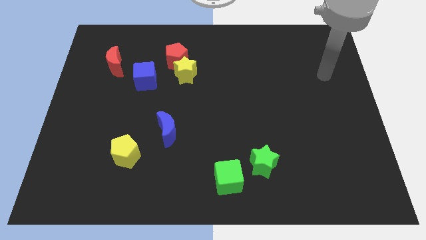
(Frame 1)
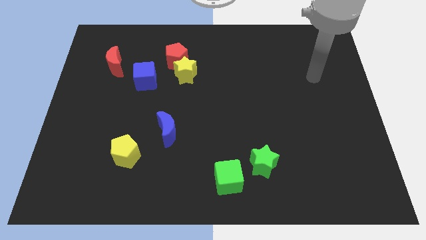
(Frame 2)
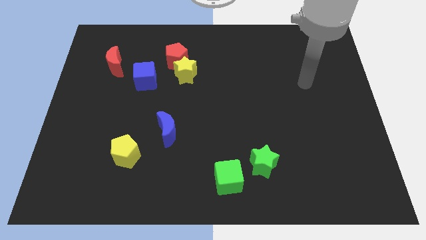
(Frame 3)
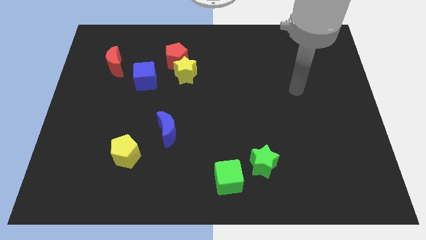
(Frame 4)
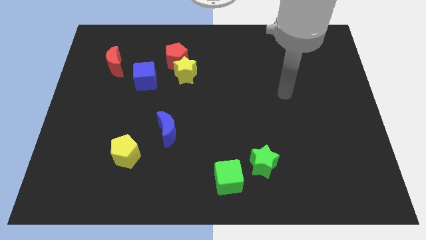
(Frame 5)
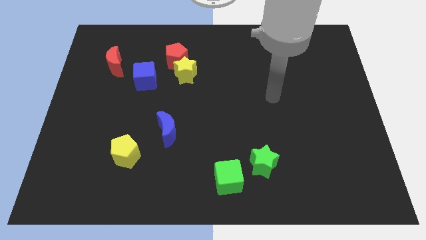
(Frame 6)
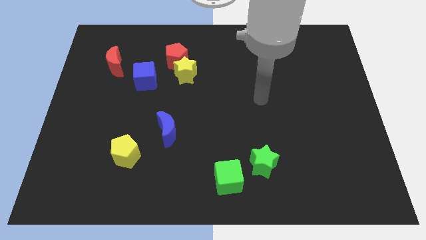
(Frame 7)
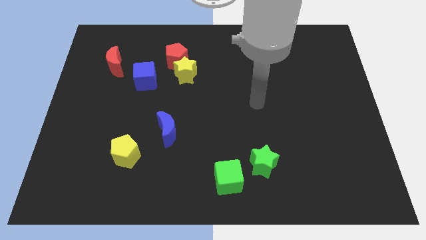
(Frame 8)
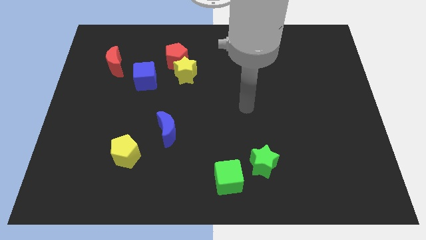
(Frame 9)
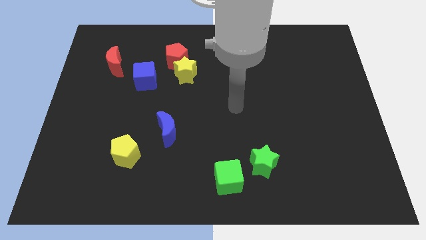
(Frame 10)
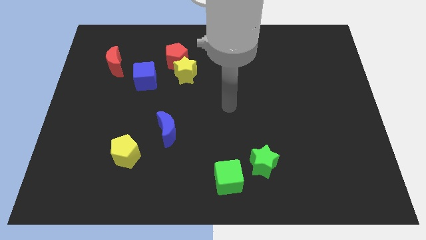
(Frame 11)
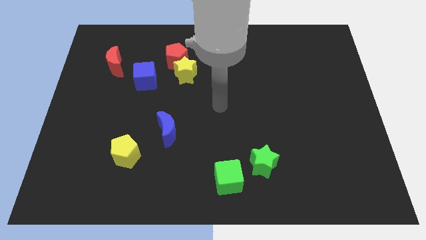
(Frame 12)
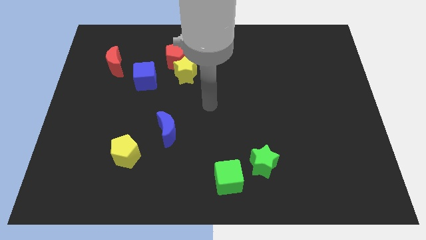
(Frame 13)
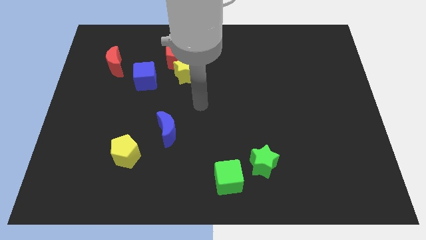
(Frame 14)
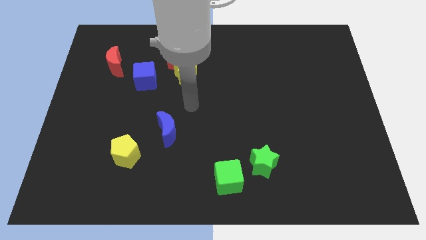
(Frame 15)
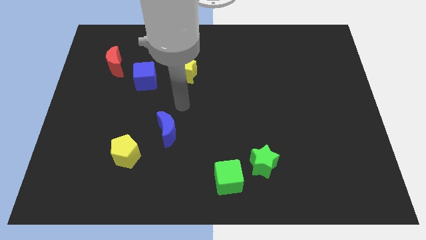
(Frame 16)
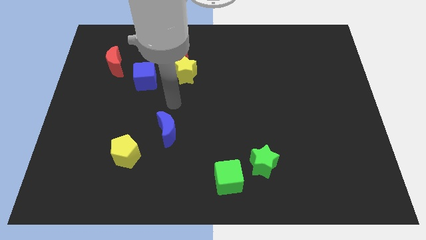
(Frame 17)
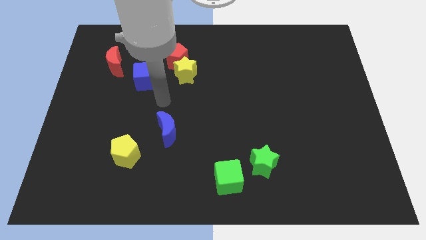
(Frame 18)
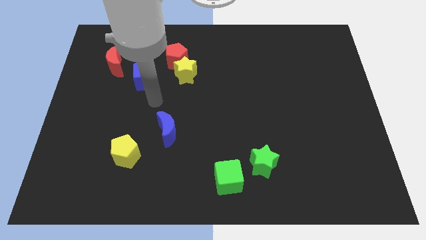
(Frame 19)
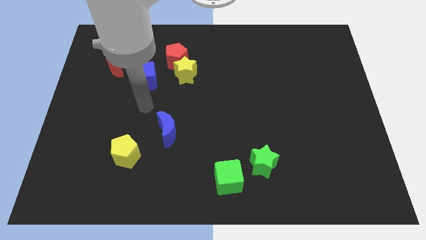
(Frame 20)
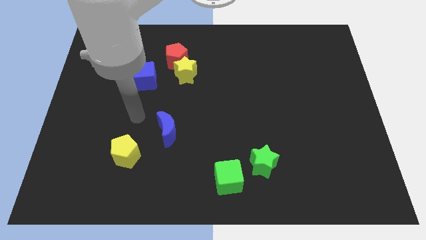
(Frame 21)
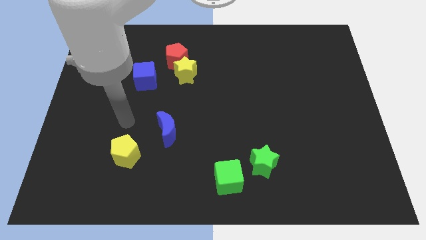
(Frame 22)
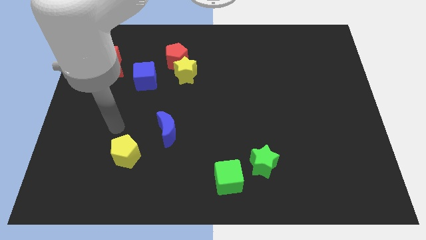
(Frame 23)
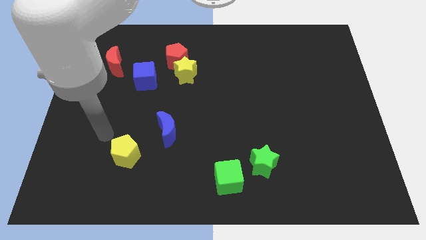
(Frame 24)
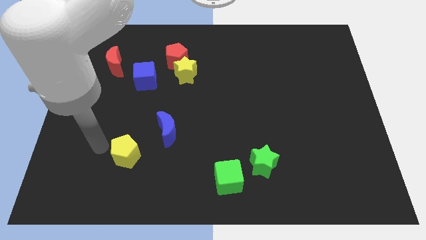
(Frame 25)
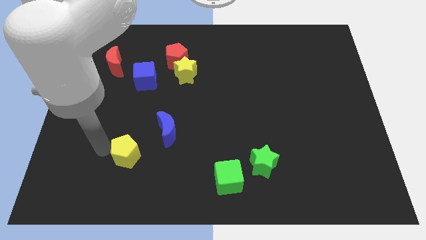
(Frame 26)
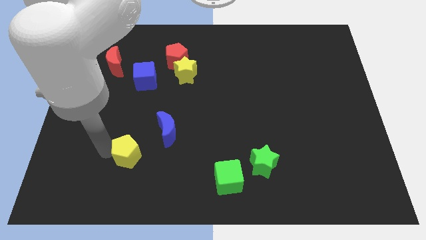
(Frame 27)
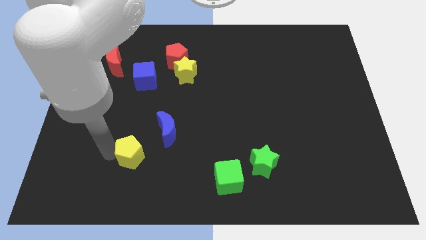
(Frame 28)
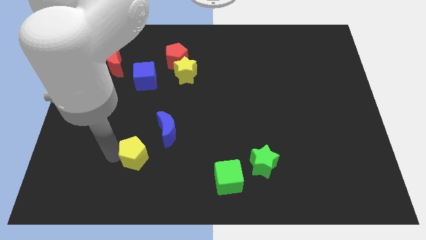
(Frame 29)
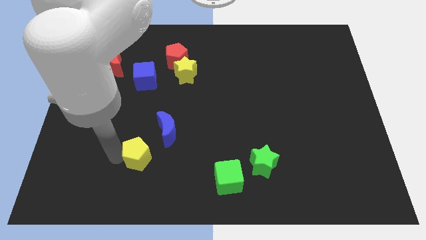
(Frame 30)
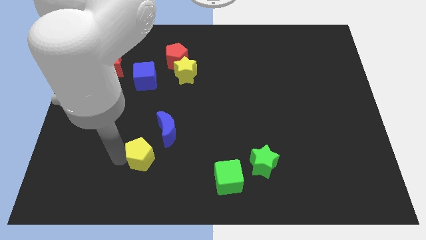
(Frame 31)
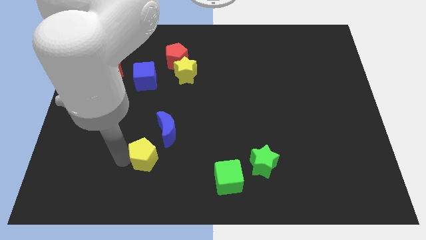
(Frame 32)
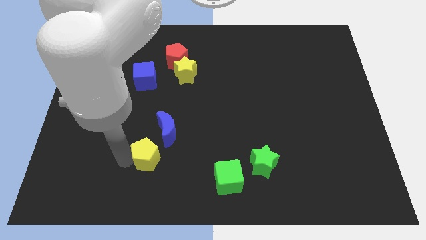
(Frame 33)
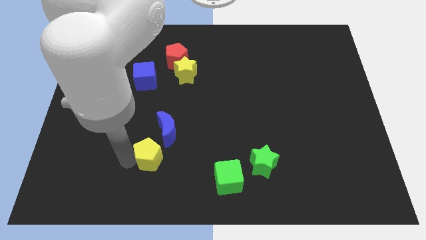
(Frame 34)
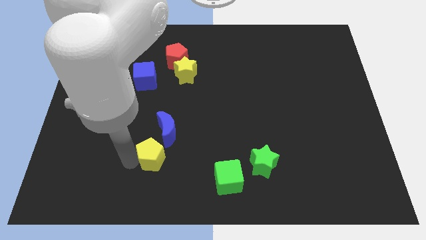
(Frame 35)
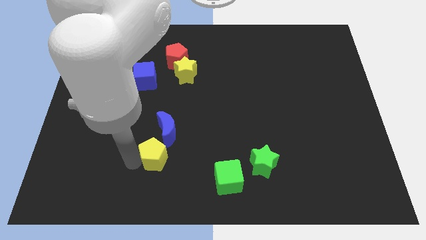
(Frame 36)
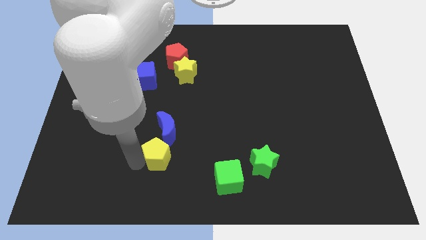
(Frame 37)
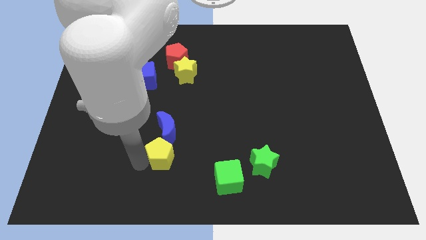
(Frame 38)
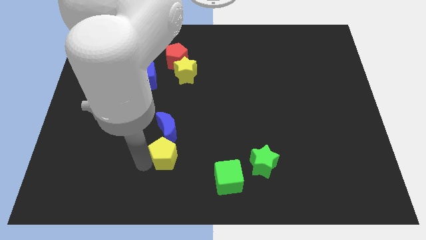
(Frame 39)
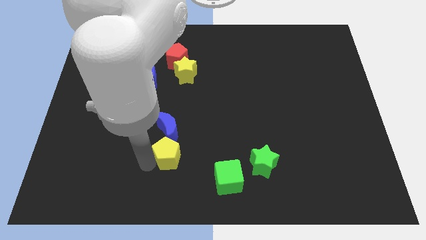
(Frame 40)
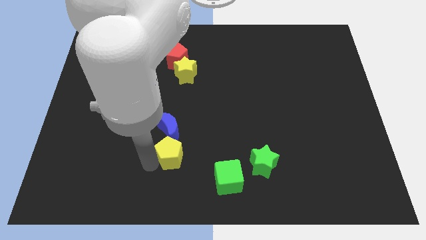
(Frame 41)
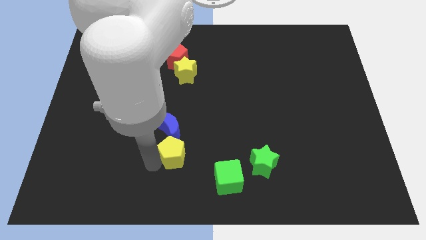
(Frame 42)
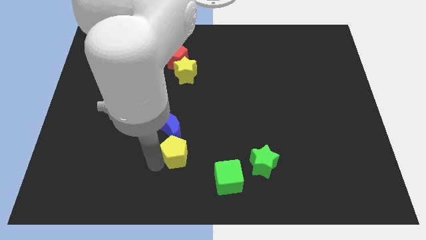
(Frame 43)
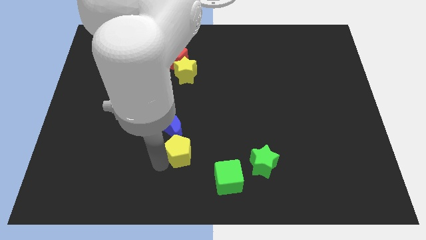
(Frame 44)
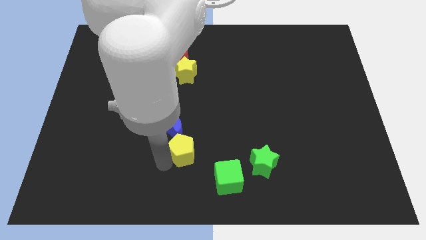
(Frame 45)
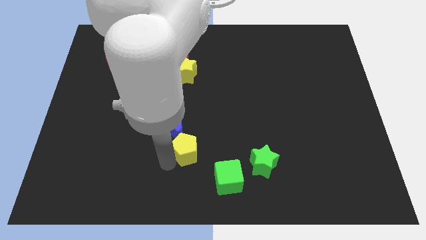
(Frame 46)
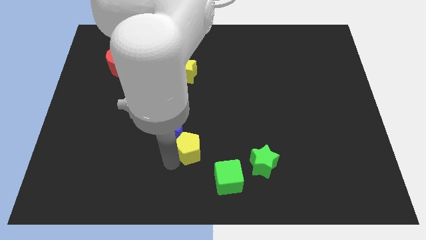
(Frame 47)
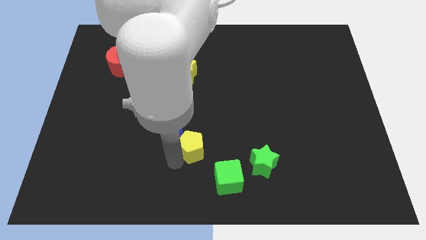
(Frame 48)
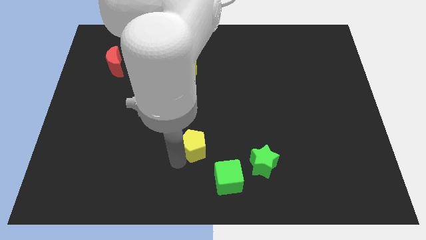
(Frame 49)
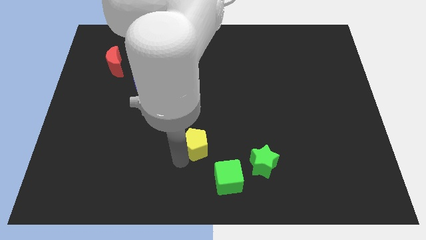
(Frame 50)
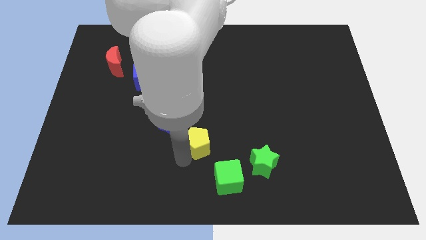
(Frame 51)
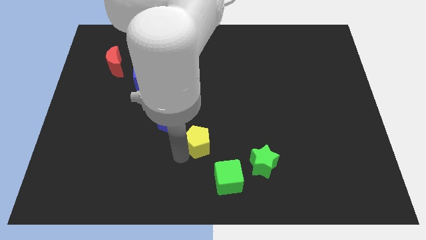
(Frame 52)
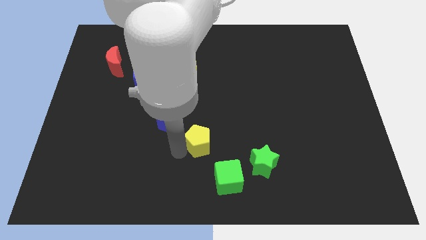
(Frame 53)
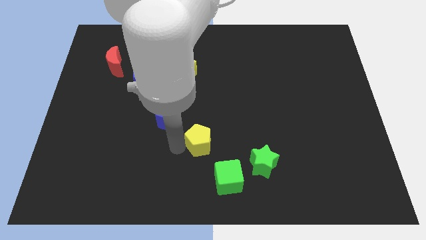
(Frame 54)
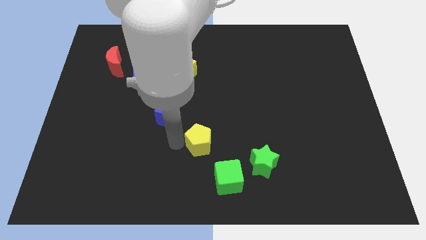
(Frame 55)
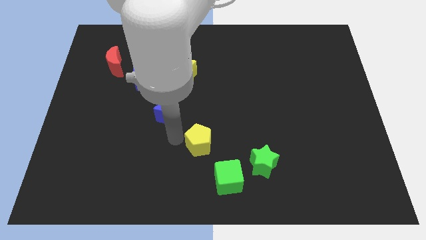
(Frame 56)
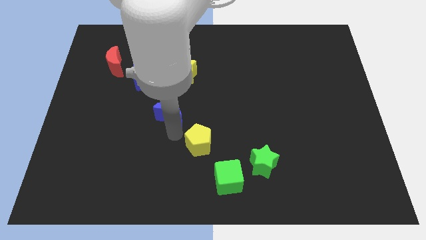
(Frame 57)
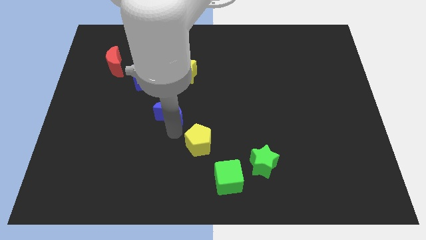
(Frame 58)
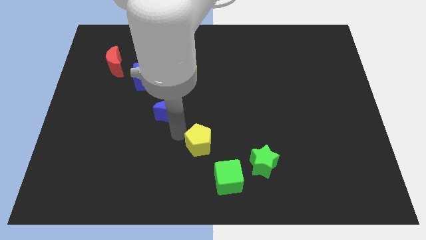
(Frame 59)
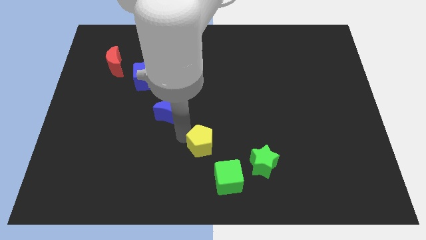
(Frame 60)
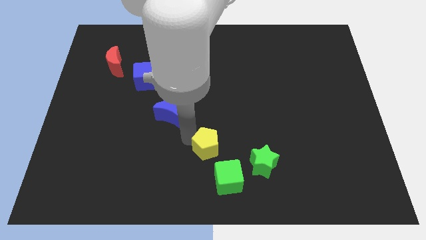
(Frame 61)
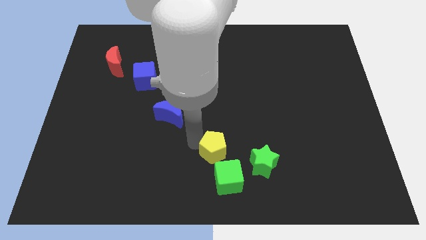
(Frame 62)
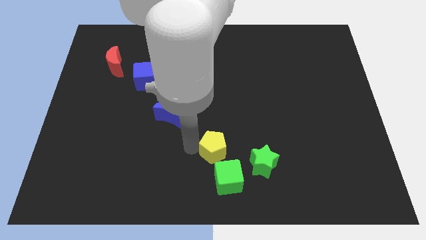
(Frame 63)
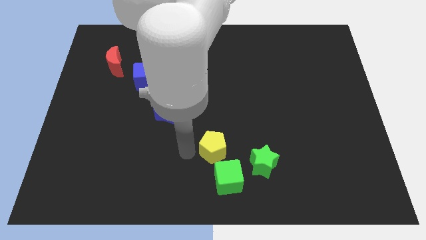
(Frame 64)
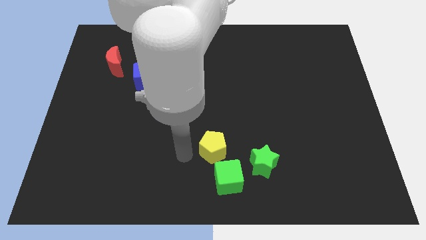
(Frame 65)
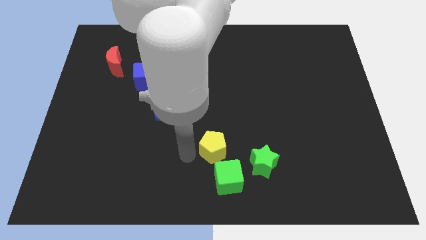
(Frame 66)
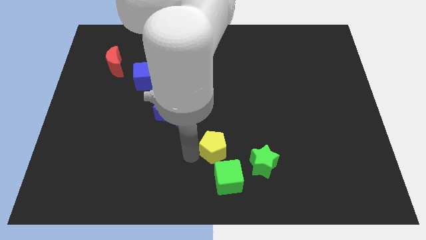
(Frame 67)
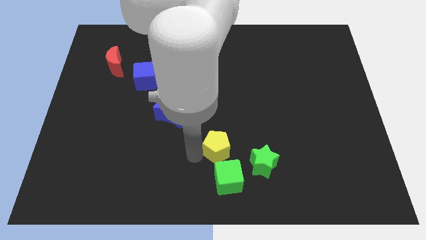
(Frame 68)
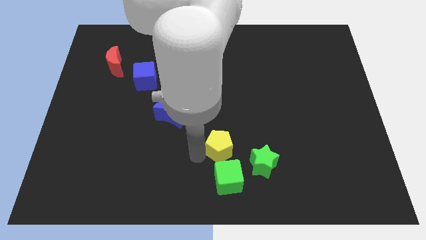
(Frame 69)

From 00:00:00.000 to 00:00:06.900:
slide the yellow pentagon to the right

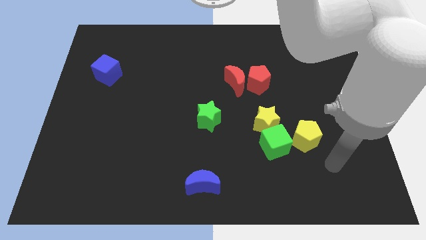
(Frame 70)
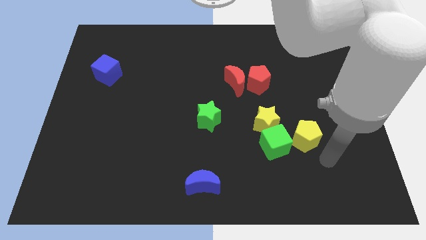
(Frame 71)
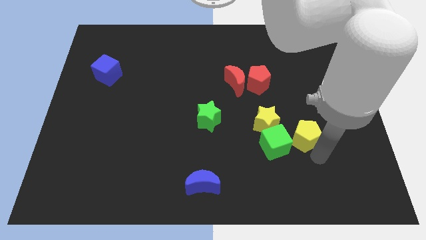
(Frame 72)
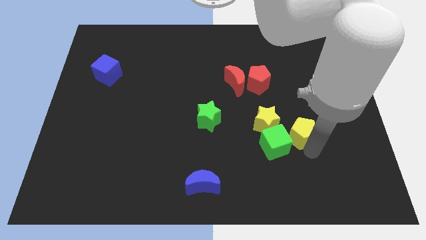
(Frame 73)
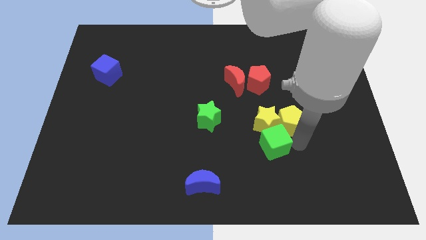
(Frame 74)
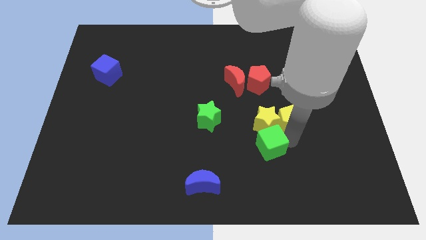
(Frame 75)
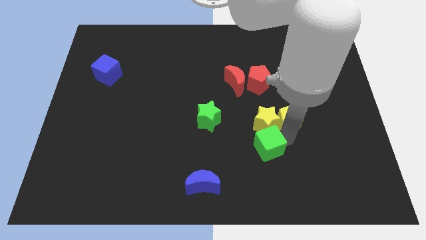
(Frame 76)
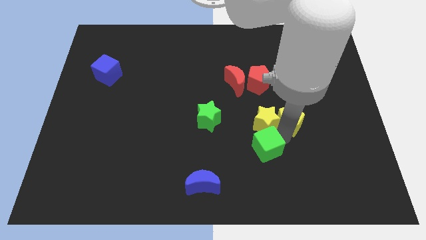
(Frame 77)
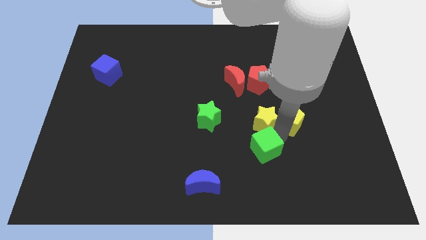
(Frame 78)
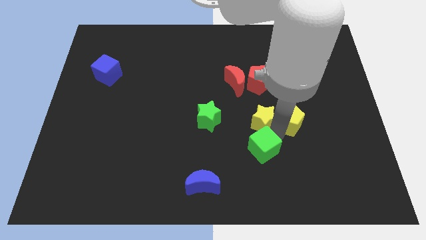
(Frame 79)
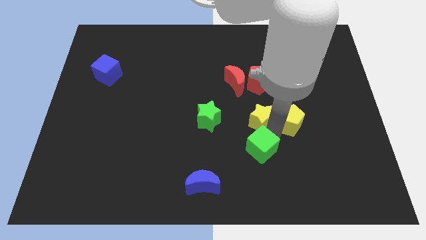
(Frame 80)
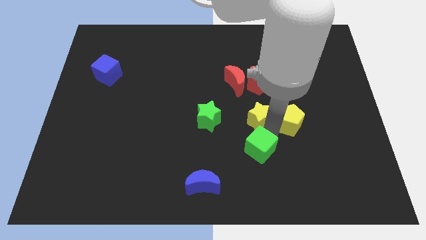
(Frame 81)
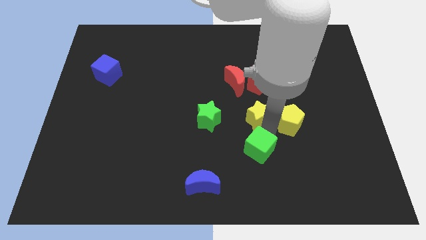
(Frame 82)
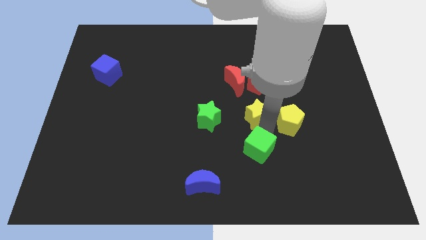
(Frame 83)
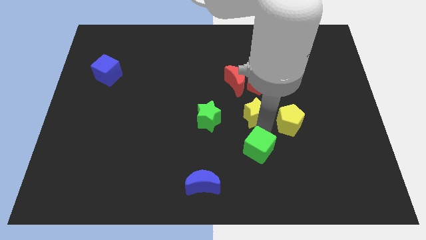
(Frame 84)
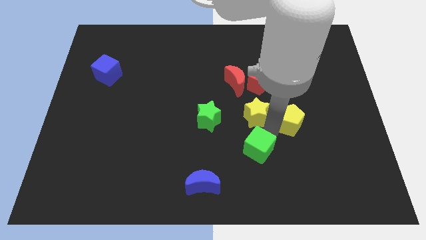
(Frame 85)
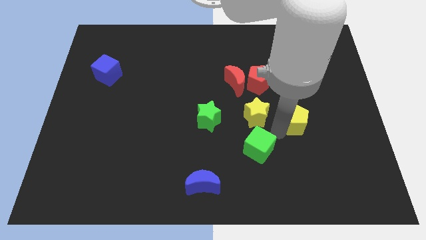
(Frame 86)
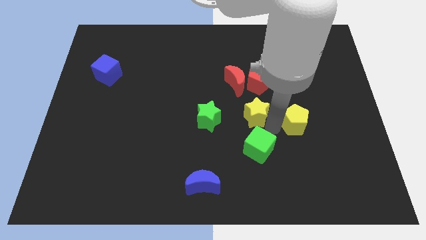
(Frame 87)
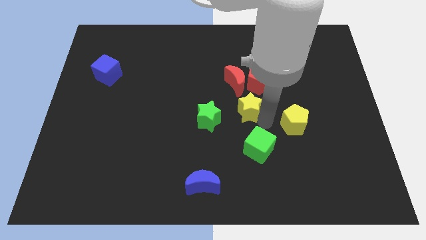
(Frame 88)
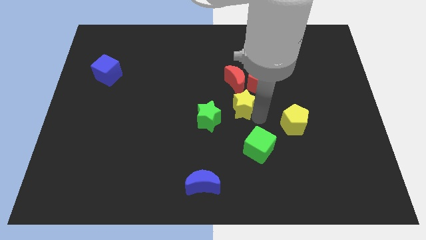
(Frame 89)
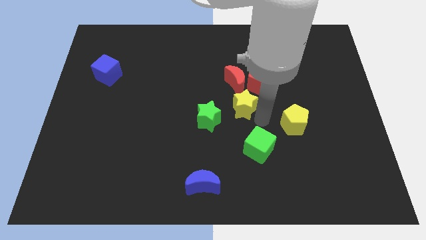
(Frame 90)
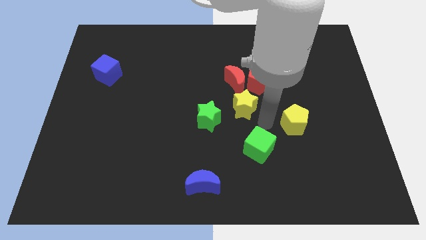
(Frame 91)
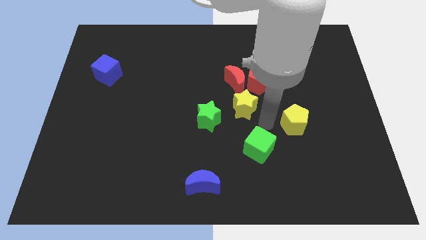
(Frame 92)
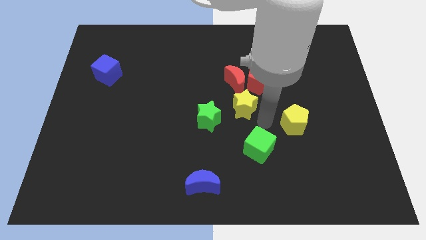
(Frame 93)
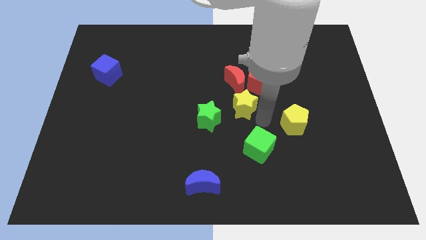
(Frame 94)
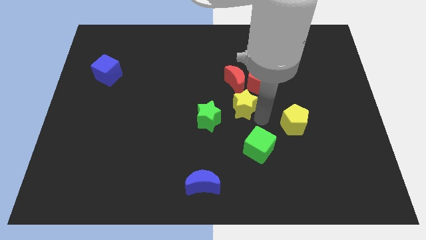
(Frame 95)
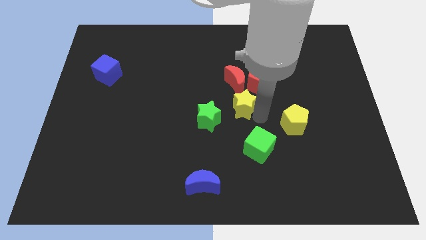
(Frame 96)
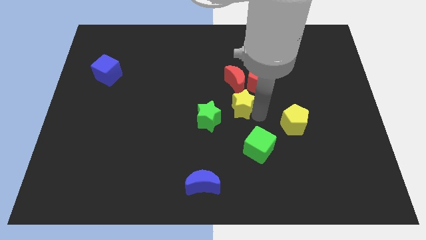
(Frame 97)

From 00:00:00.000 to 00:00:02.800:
move the yellow star diagonally upwards and left somewhat
